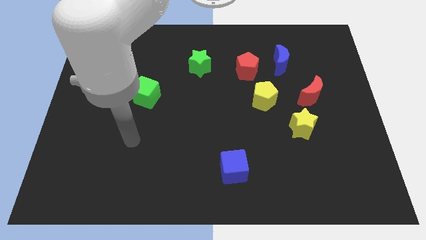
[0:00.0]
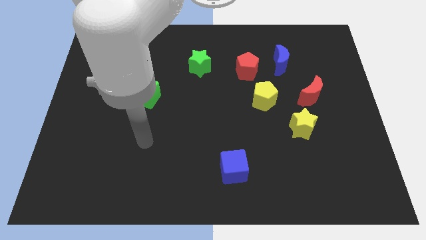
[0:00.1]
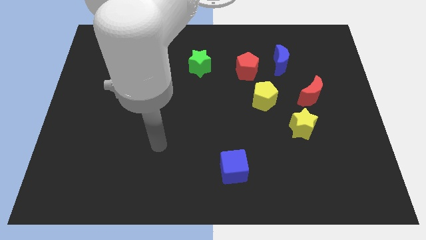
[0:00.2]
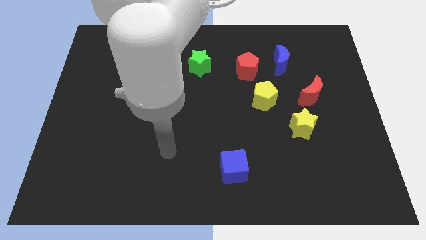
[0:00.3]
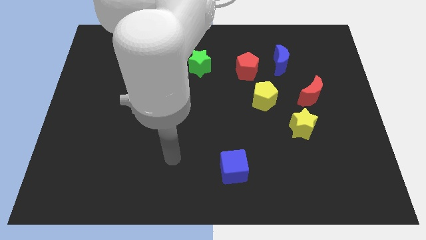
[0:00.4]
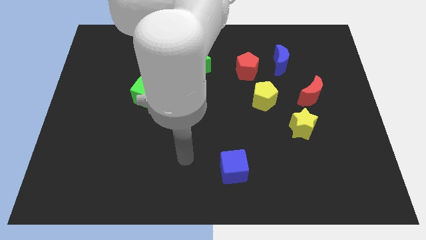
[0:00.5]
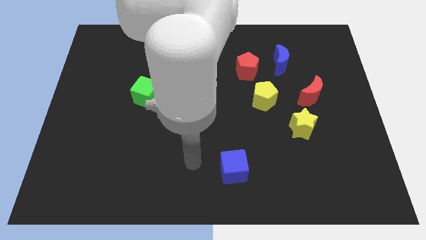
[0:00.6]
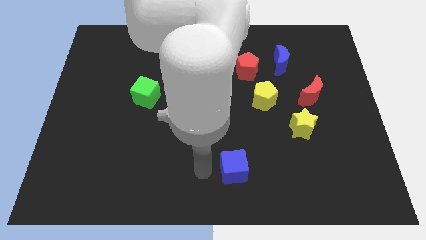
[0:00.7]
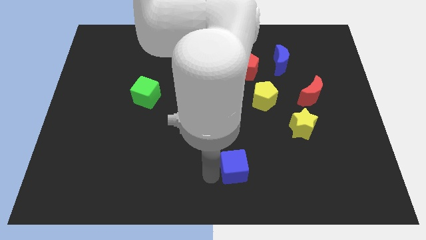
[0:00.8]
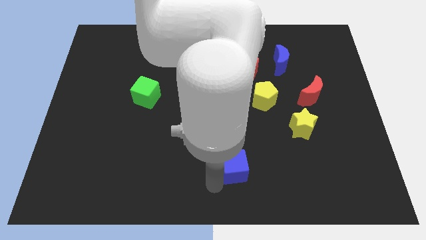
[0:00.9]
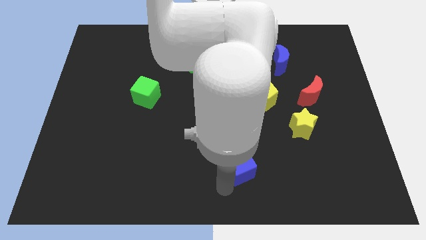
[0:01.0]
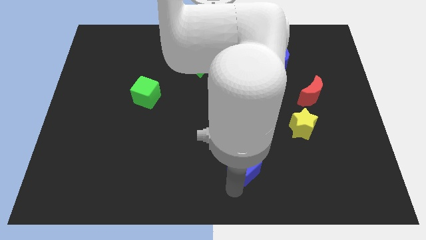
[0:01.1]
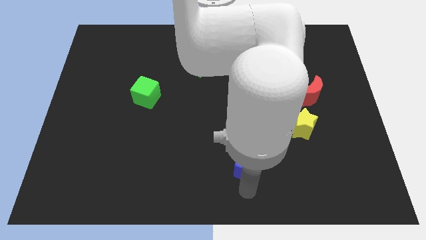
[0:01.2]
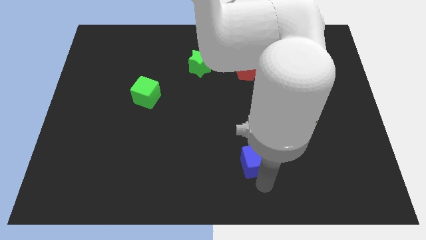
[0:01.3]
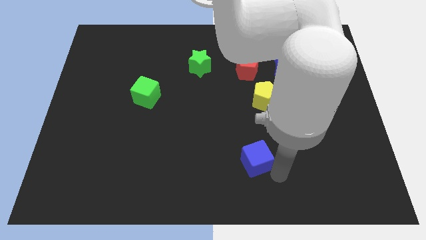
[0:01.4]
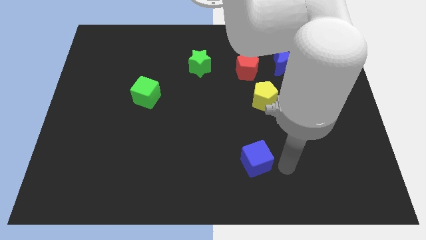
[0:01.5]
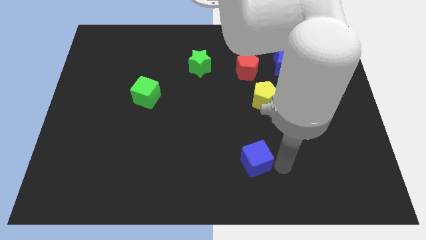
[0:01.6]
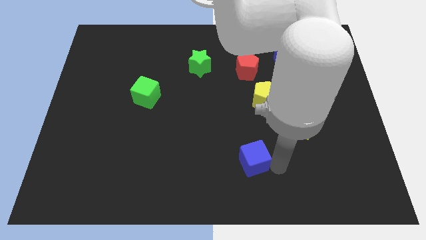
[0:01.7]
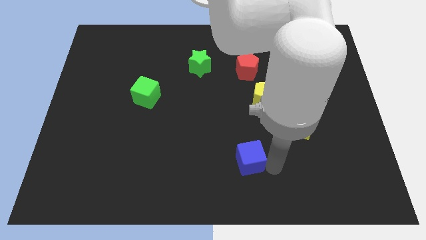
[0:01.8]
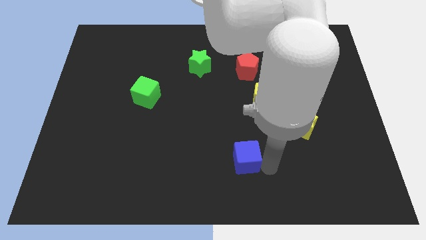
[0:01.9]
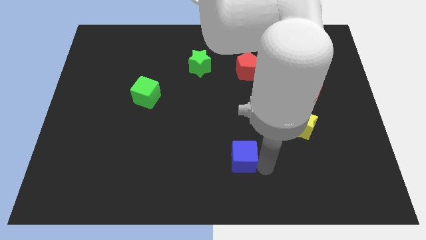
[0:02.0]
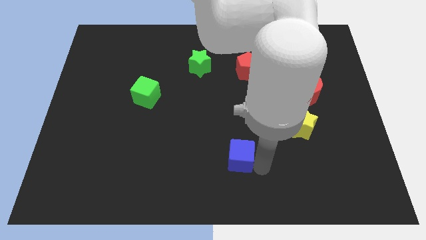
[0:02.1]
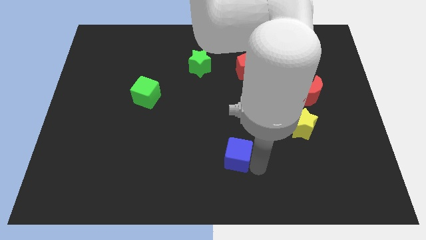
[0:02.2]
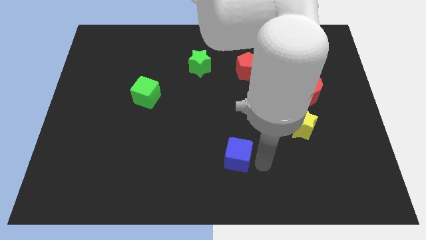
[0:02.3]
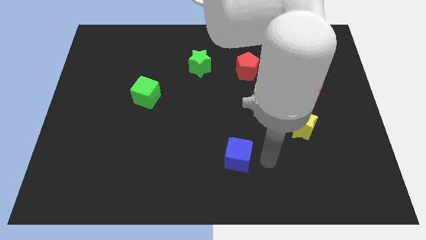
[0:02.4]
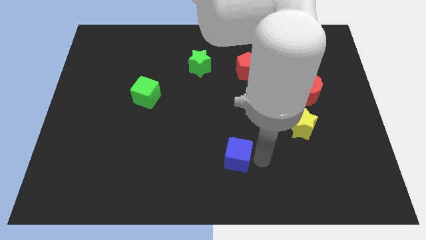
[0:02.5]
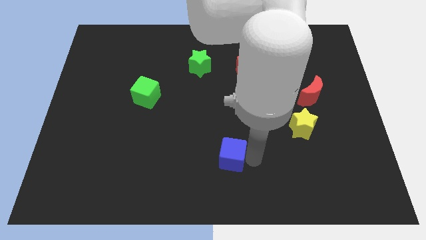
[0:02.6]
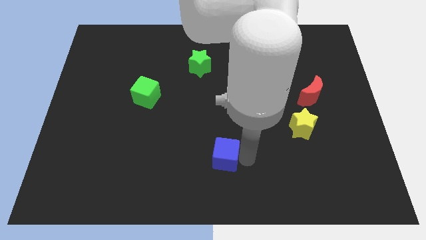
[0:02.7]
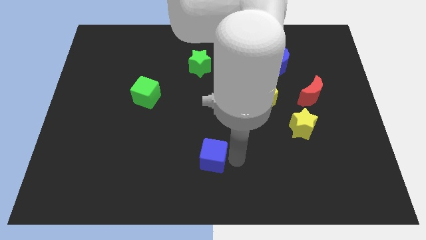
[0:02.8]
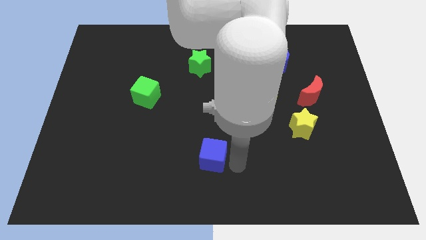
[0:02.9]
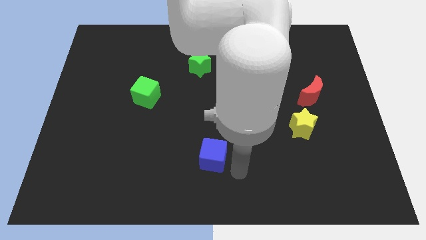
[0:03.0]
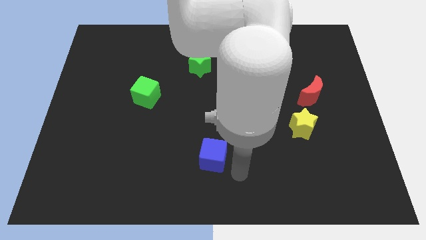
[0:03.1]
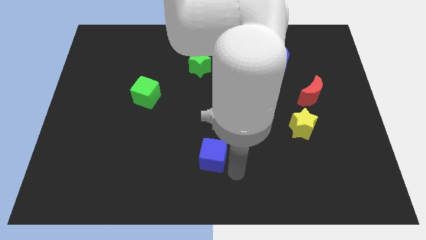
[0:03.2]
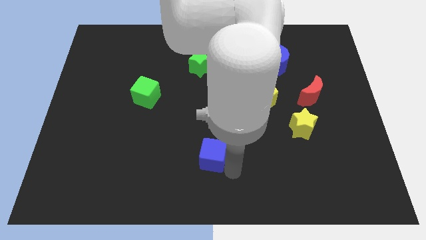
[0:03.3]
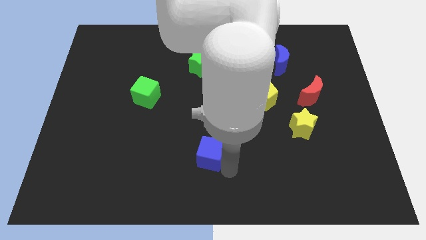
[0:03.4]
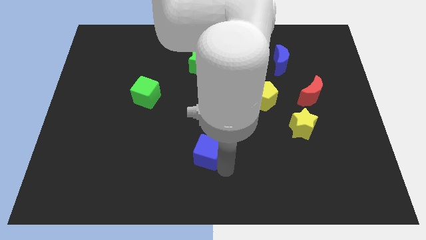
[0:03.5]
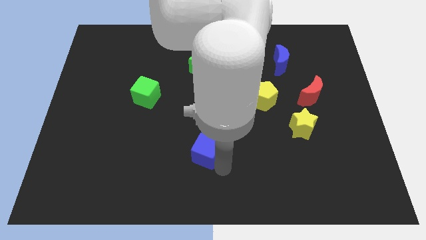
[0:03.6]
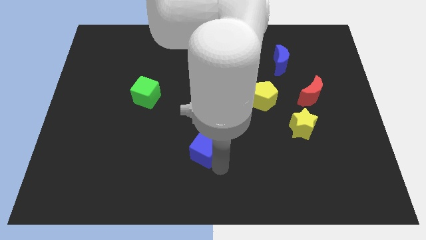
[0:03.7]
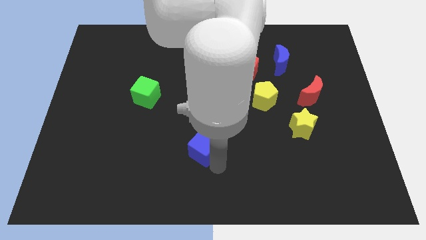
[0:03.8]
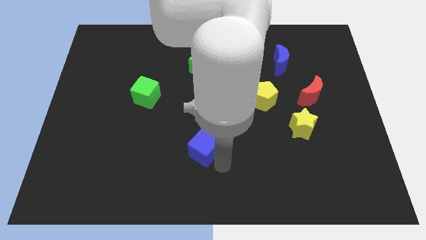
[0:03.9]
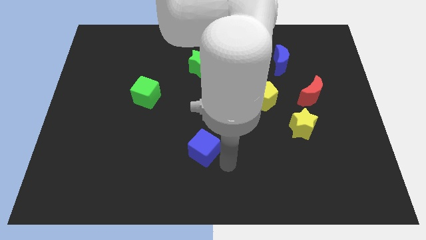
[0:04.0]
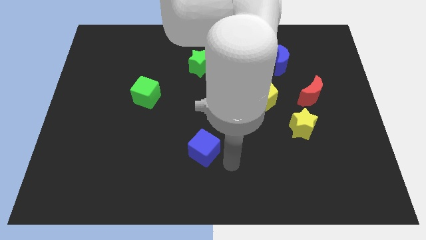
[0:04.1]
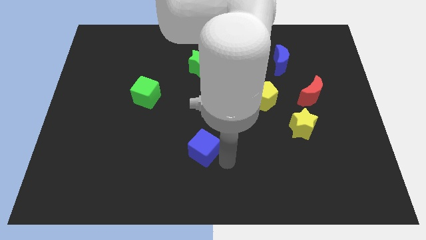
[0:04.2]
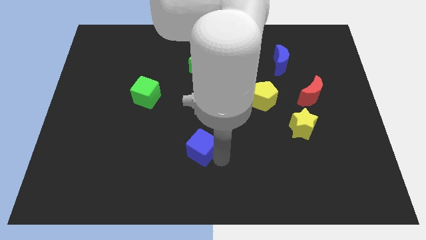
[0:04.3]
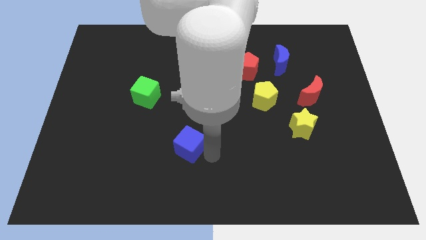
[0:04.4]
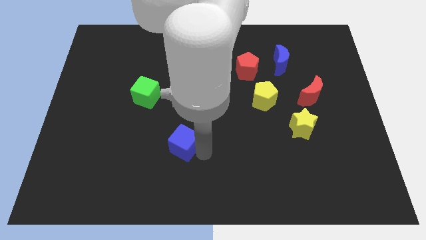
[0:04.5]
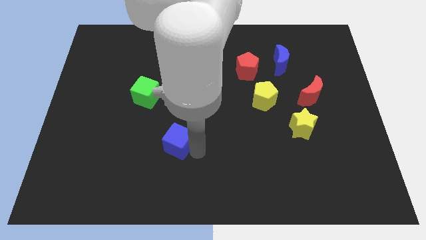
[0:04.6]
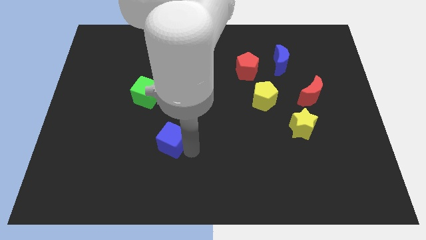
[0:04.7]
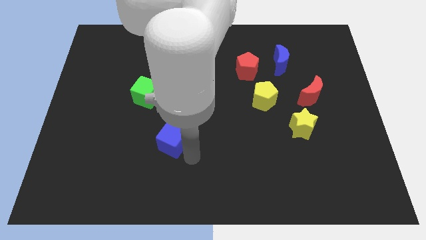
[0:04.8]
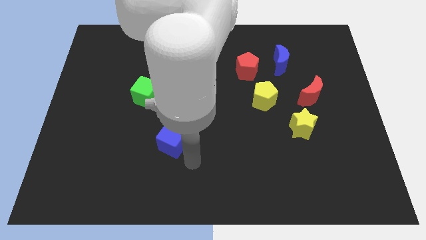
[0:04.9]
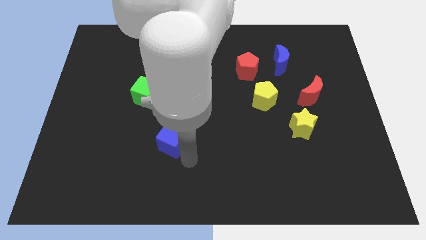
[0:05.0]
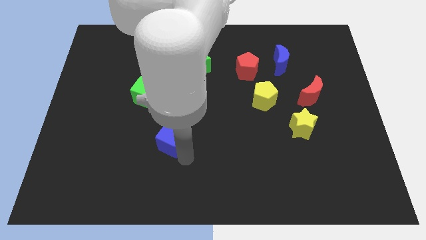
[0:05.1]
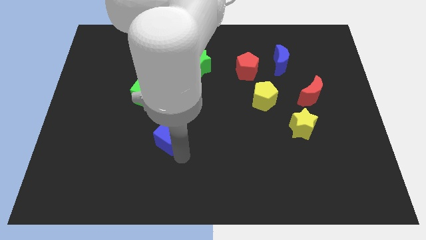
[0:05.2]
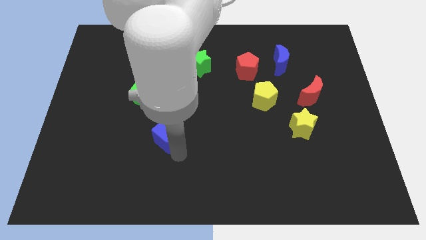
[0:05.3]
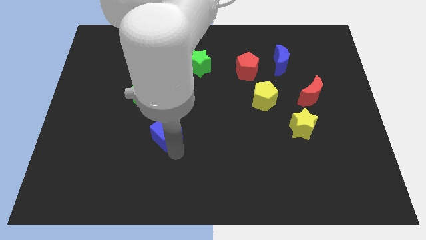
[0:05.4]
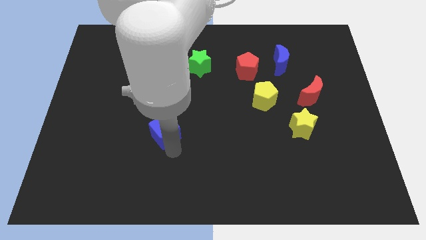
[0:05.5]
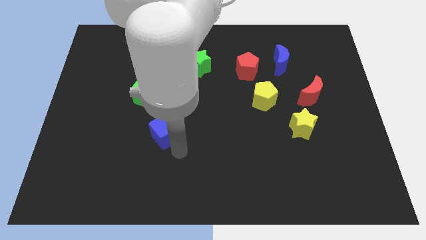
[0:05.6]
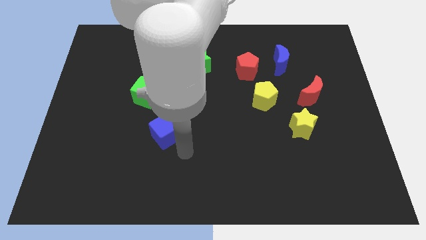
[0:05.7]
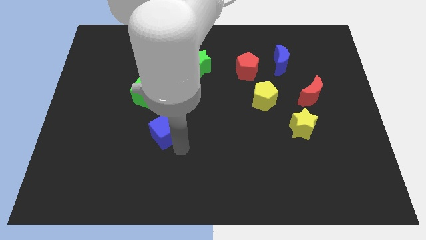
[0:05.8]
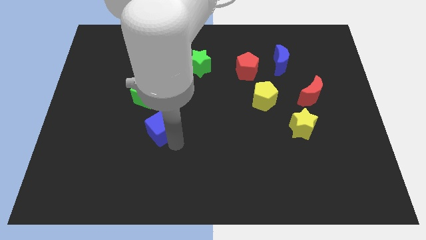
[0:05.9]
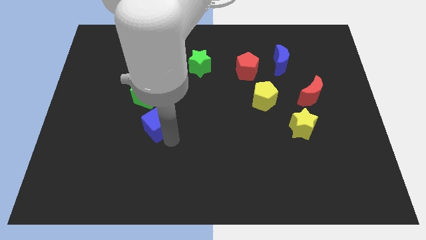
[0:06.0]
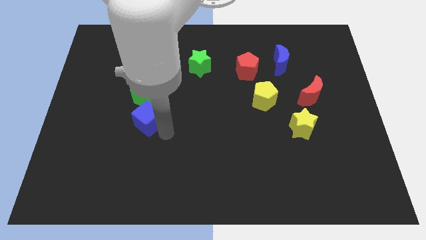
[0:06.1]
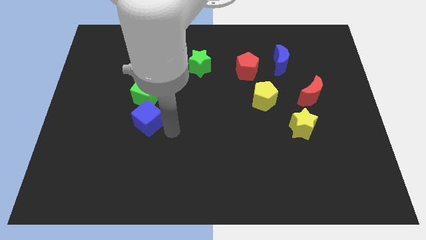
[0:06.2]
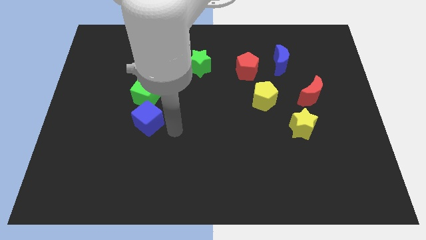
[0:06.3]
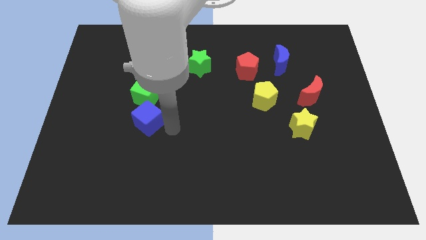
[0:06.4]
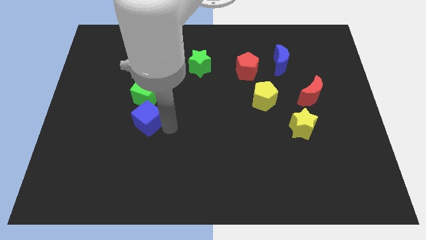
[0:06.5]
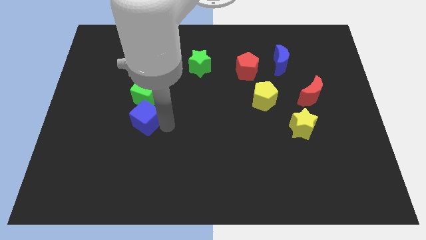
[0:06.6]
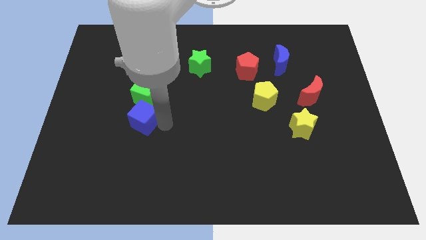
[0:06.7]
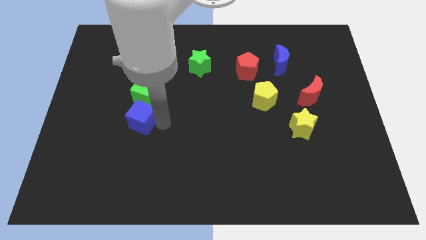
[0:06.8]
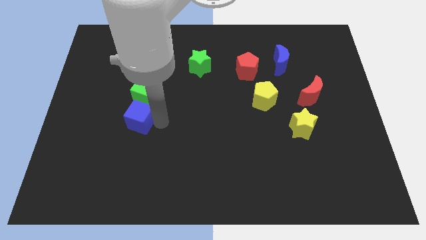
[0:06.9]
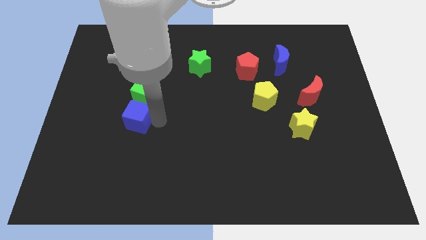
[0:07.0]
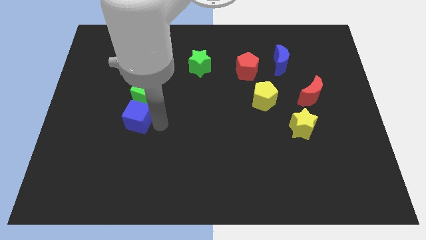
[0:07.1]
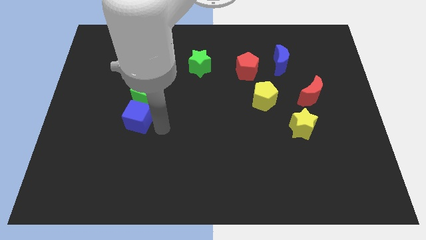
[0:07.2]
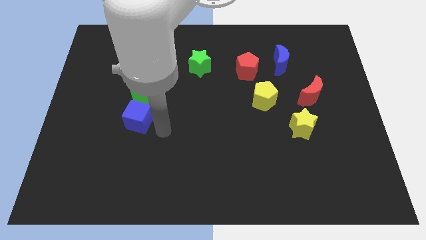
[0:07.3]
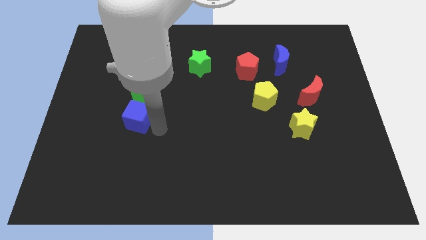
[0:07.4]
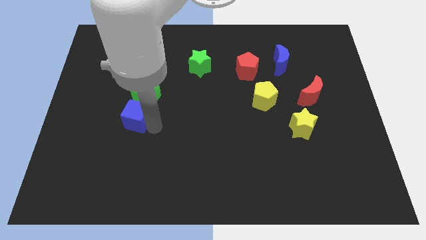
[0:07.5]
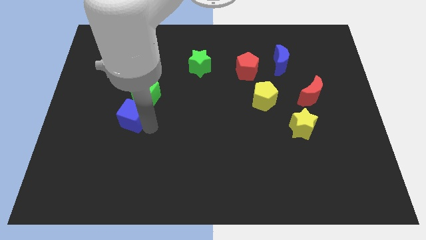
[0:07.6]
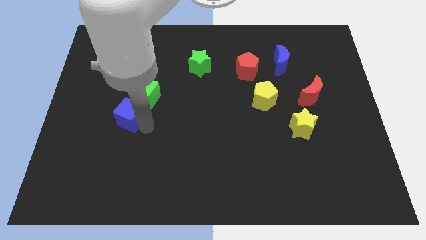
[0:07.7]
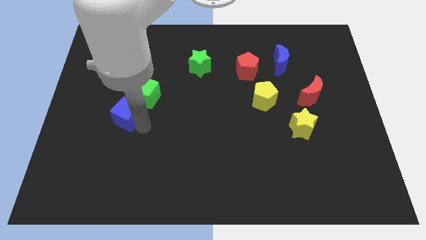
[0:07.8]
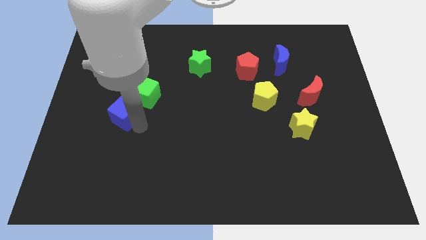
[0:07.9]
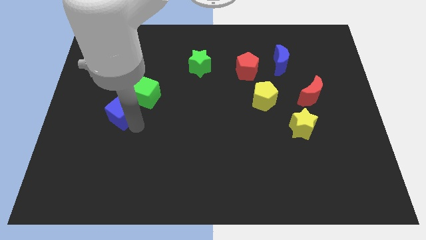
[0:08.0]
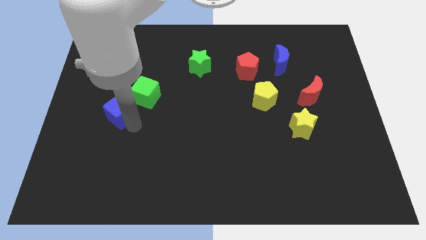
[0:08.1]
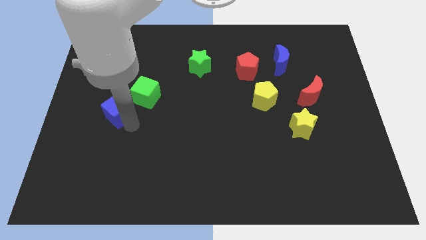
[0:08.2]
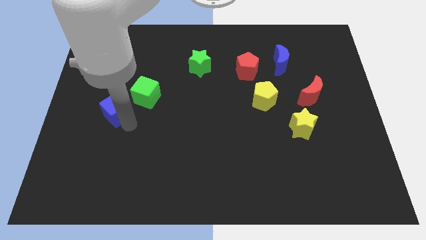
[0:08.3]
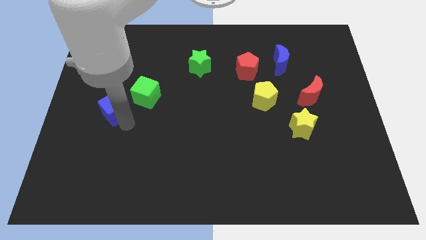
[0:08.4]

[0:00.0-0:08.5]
move the blue cube to the left side of the green cube
